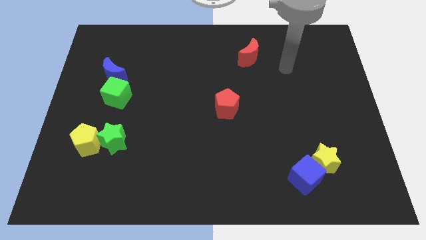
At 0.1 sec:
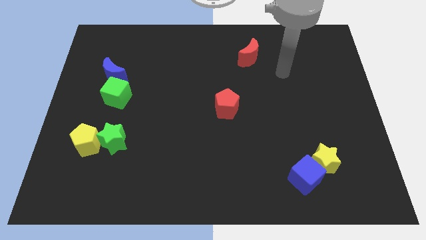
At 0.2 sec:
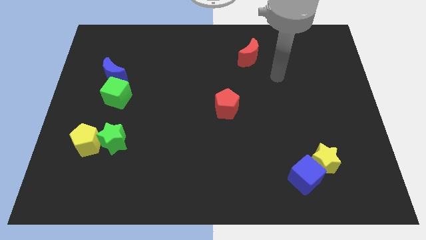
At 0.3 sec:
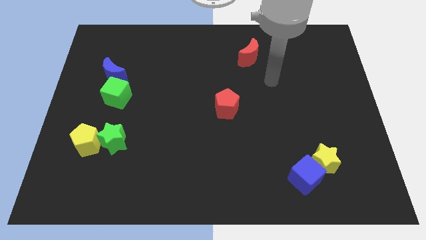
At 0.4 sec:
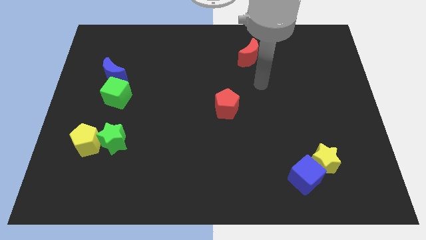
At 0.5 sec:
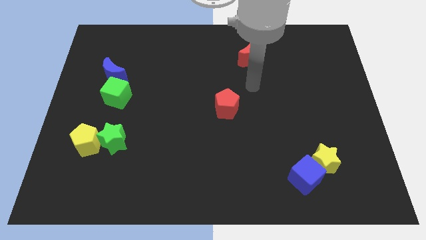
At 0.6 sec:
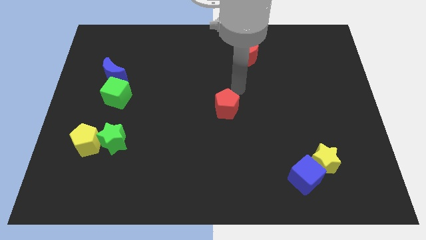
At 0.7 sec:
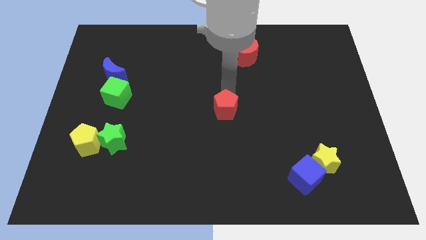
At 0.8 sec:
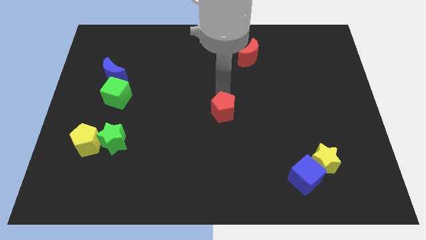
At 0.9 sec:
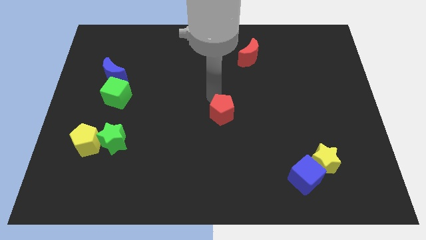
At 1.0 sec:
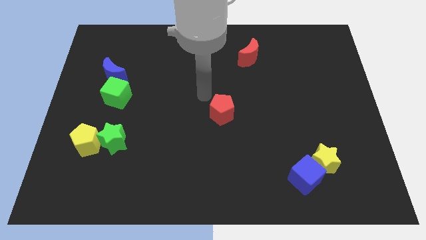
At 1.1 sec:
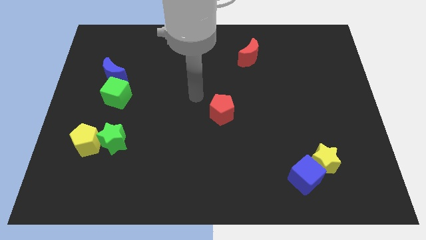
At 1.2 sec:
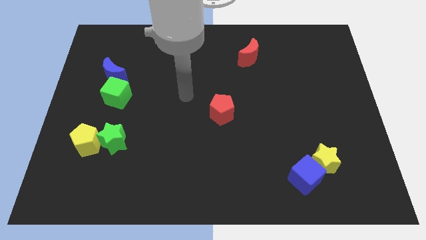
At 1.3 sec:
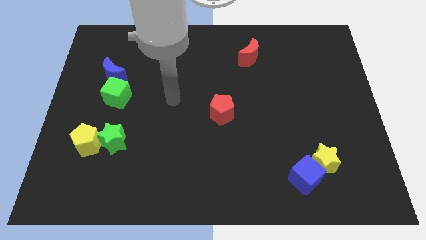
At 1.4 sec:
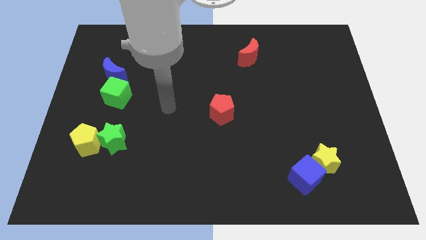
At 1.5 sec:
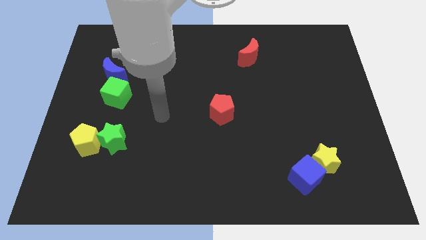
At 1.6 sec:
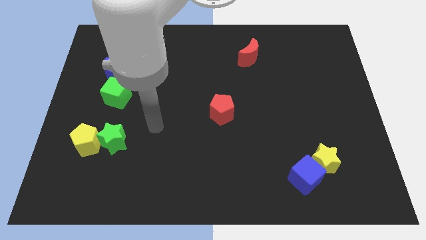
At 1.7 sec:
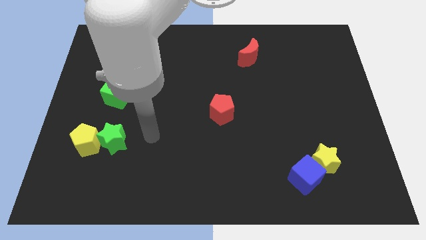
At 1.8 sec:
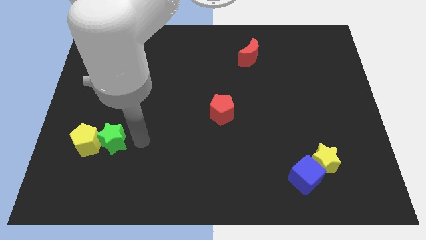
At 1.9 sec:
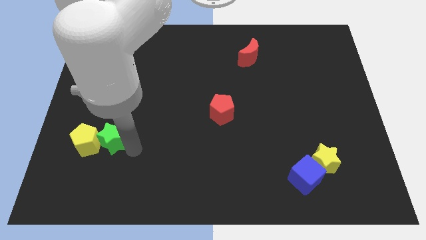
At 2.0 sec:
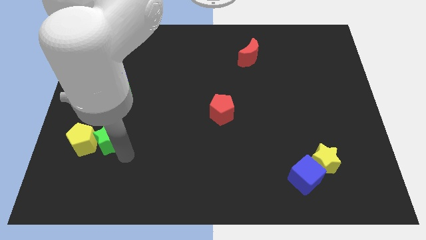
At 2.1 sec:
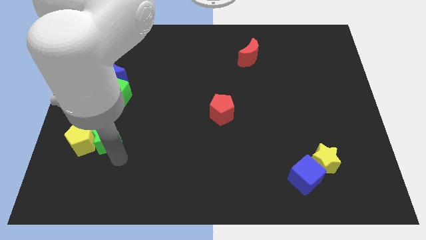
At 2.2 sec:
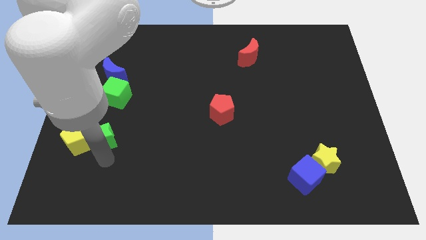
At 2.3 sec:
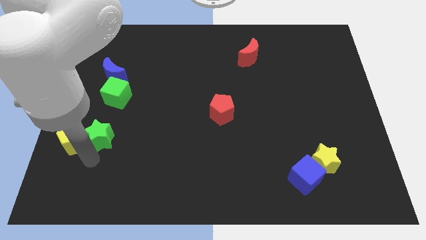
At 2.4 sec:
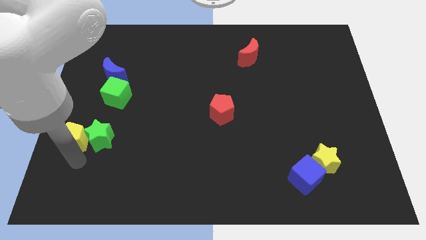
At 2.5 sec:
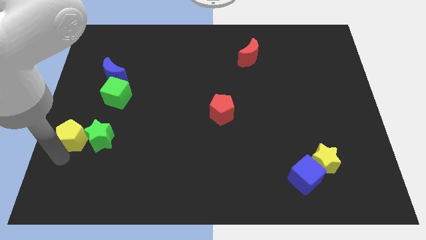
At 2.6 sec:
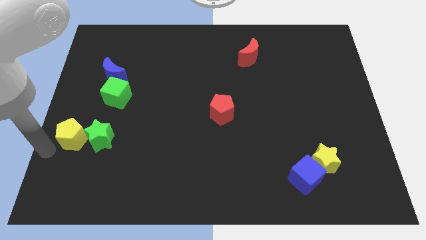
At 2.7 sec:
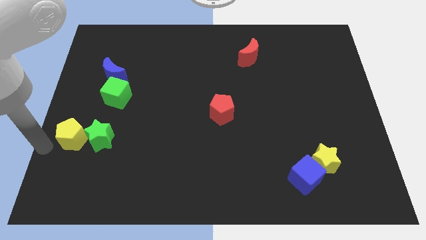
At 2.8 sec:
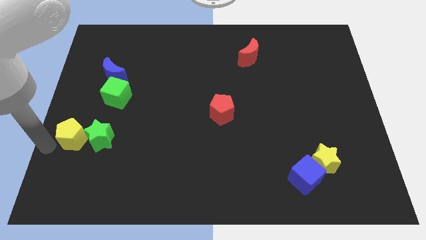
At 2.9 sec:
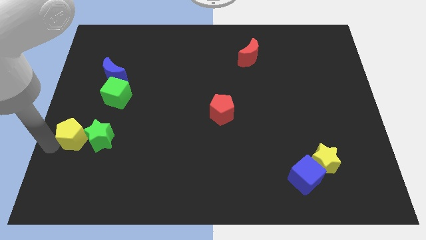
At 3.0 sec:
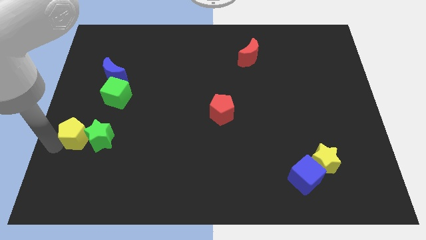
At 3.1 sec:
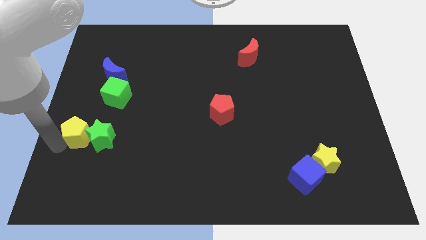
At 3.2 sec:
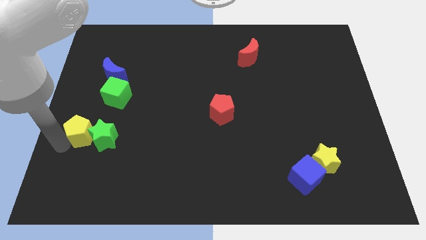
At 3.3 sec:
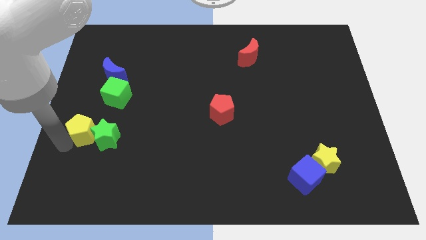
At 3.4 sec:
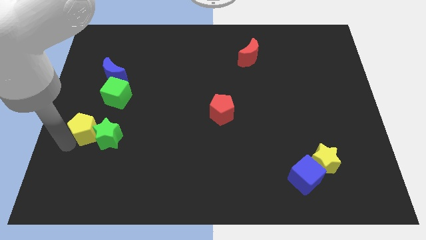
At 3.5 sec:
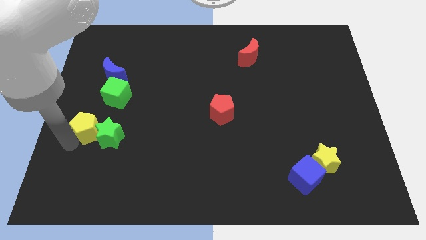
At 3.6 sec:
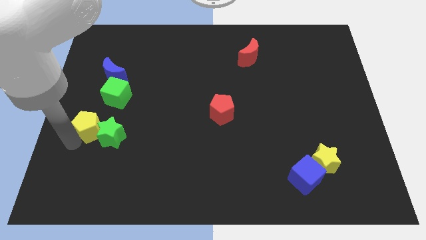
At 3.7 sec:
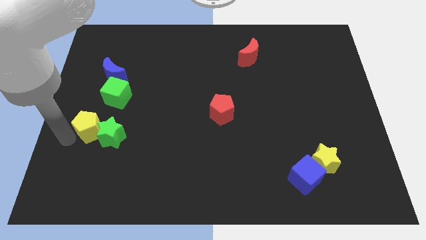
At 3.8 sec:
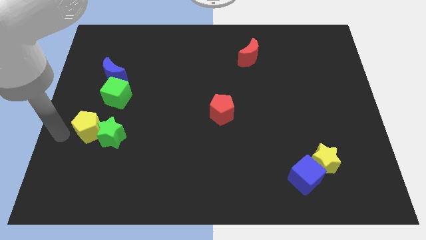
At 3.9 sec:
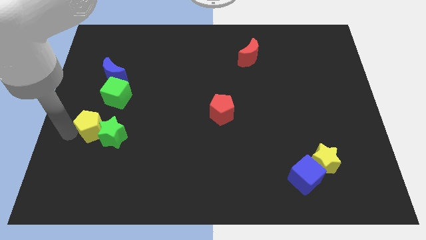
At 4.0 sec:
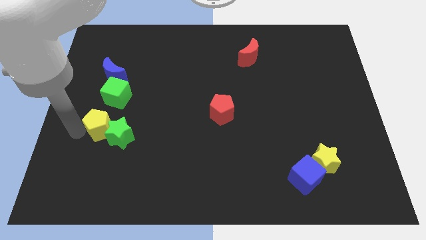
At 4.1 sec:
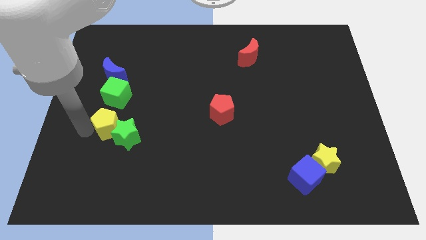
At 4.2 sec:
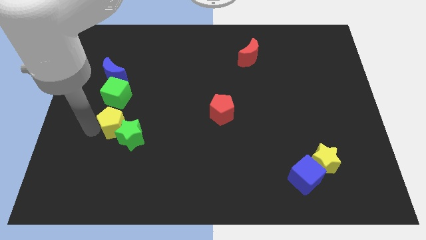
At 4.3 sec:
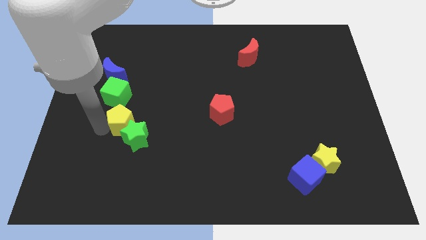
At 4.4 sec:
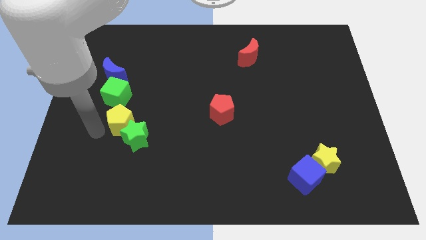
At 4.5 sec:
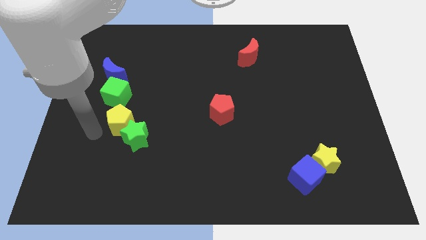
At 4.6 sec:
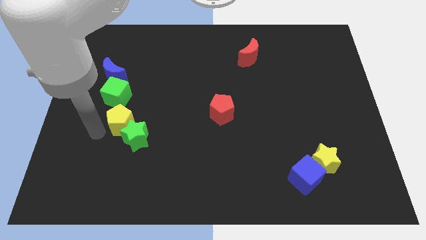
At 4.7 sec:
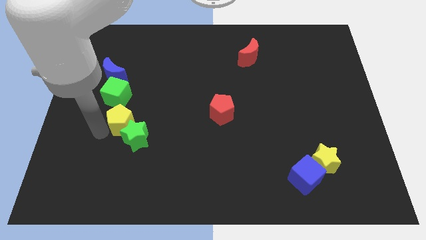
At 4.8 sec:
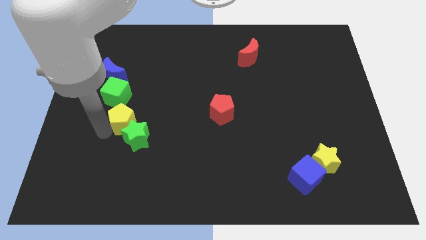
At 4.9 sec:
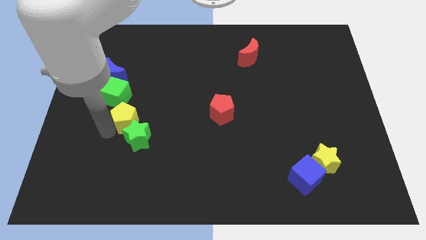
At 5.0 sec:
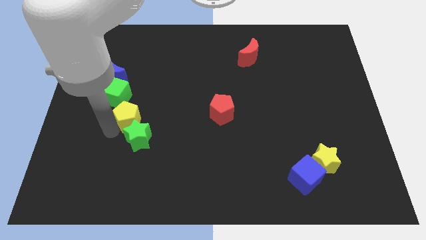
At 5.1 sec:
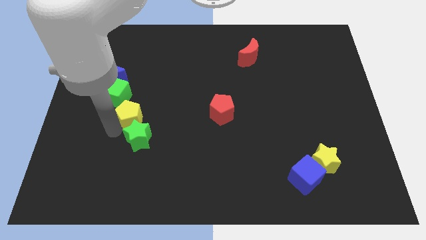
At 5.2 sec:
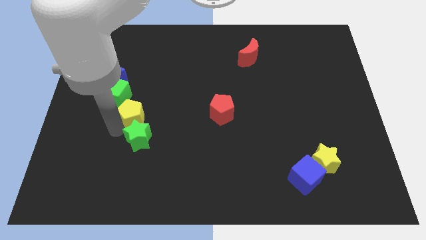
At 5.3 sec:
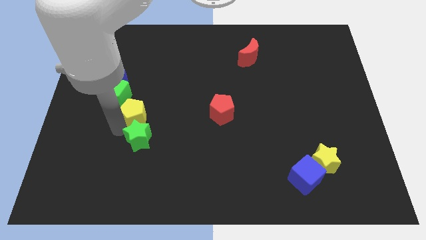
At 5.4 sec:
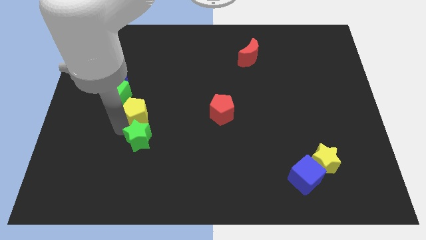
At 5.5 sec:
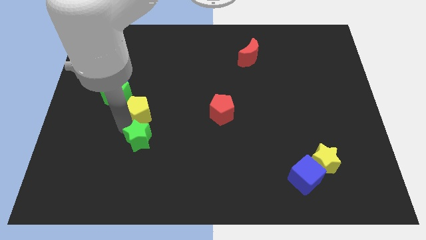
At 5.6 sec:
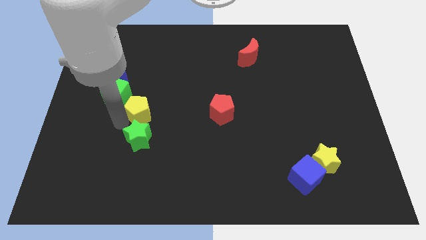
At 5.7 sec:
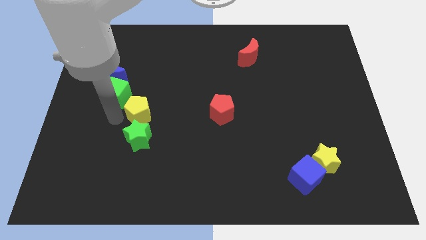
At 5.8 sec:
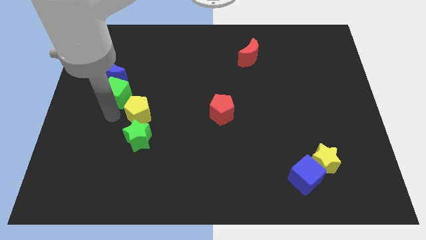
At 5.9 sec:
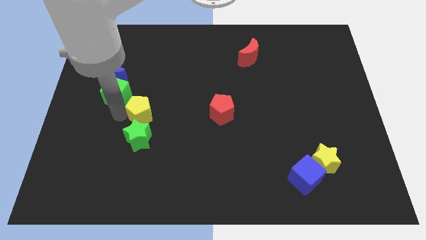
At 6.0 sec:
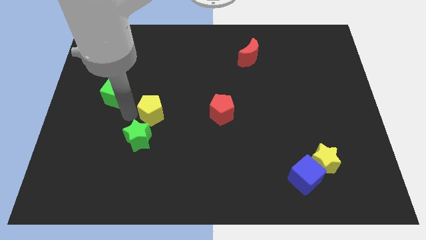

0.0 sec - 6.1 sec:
put the yellow pentagon just left of the red pentagon
